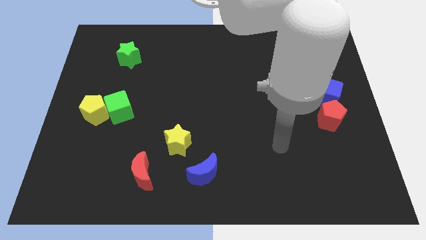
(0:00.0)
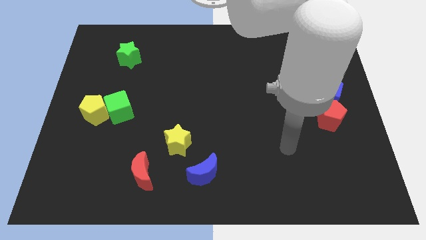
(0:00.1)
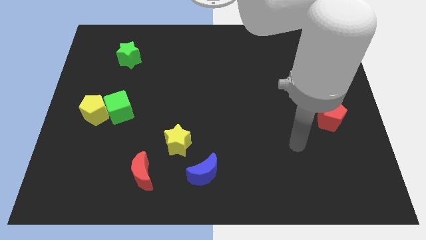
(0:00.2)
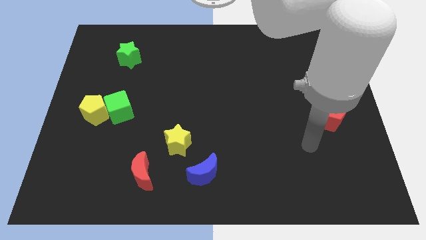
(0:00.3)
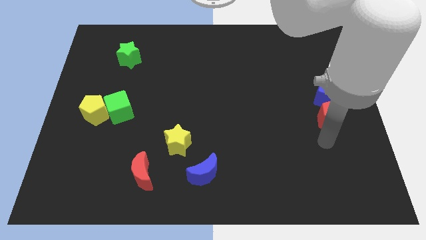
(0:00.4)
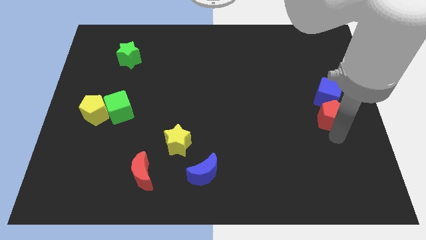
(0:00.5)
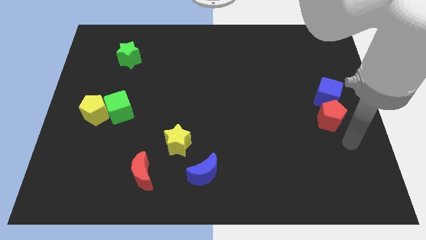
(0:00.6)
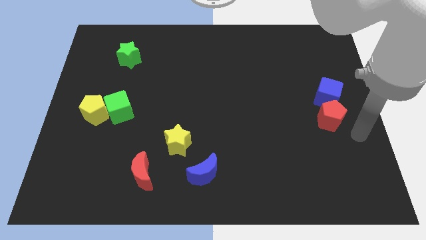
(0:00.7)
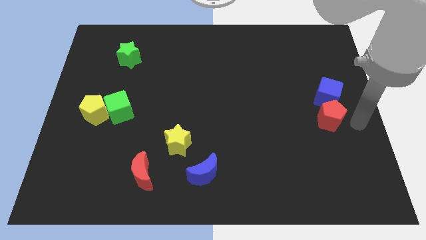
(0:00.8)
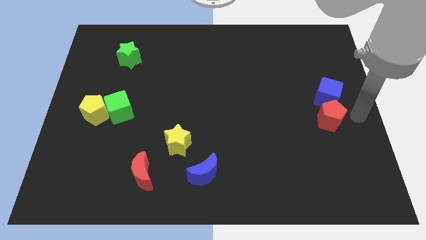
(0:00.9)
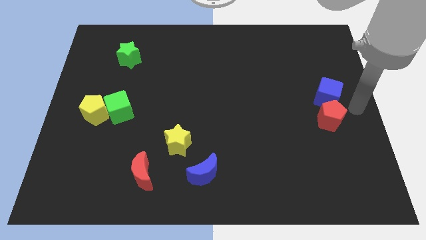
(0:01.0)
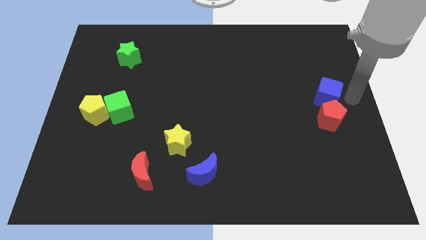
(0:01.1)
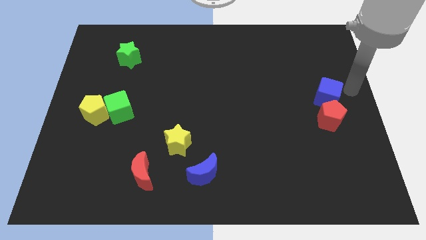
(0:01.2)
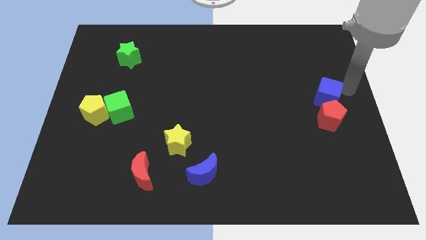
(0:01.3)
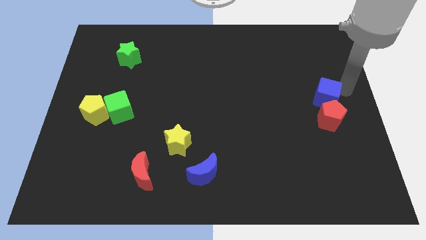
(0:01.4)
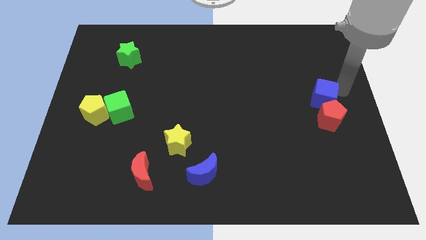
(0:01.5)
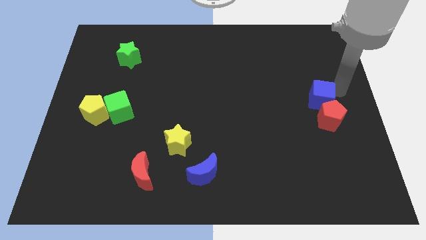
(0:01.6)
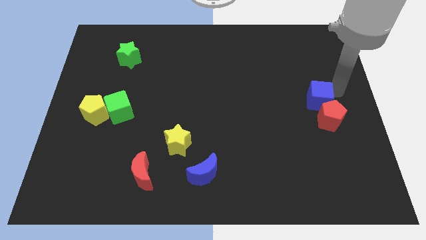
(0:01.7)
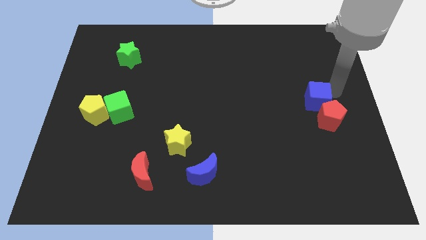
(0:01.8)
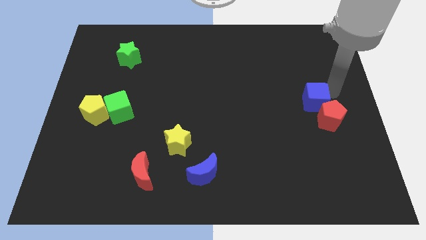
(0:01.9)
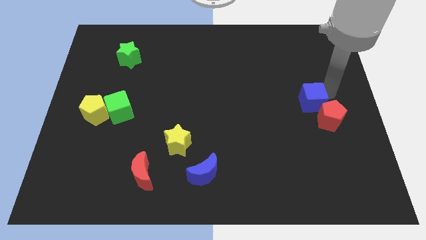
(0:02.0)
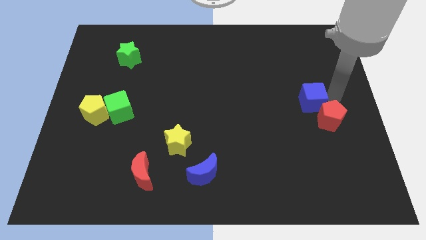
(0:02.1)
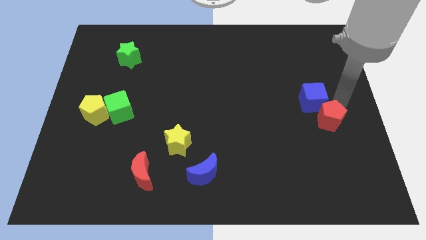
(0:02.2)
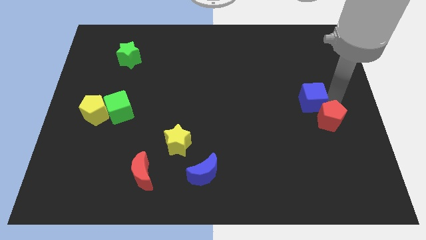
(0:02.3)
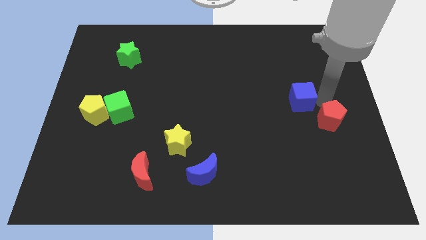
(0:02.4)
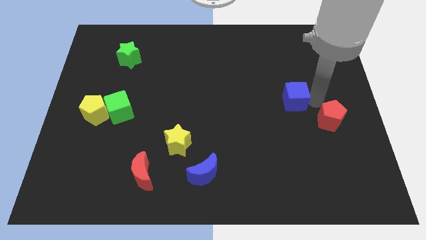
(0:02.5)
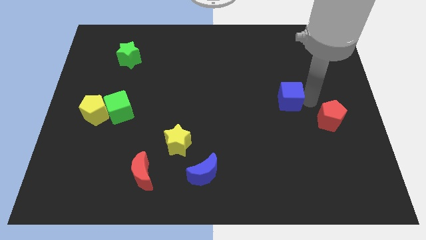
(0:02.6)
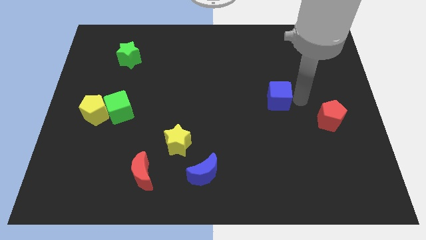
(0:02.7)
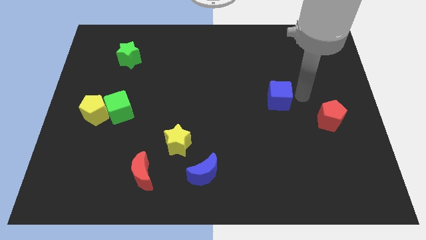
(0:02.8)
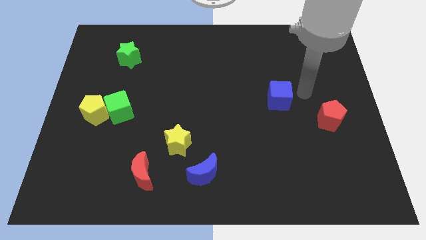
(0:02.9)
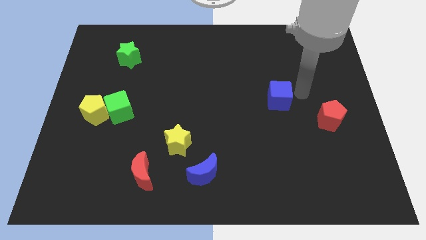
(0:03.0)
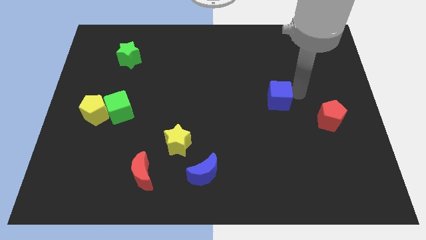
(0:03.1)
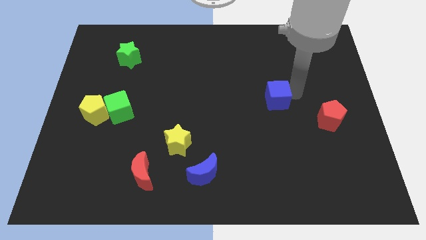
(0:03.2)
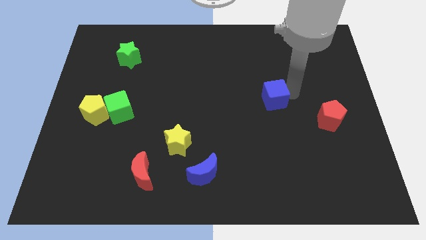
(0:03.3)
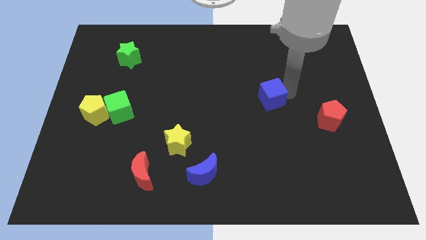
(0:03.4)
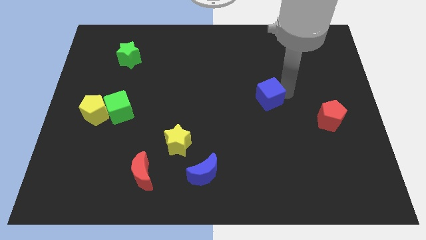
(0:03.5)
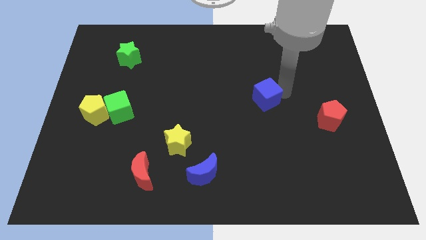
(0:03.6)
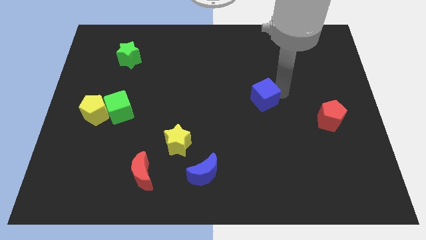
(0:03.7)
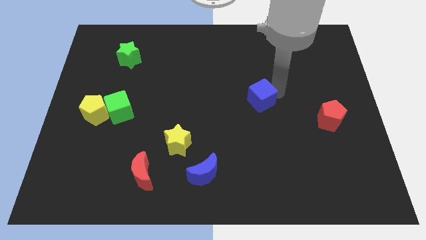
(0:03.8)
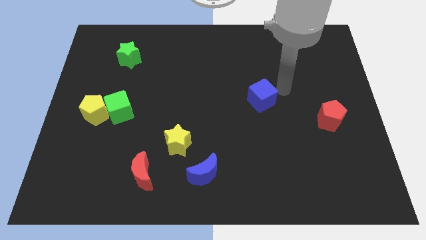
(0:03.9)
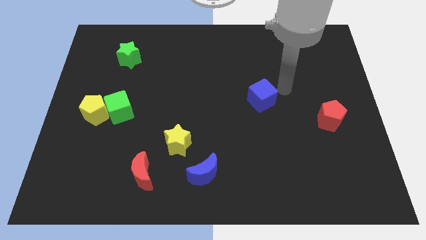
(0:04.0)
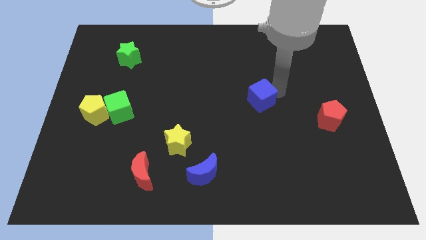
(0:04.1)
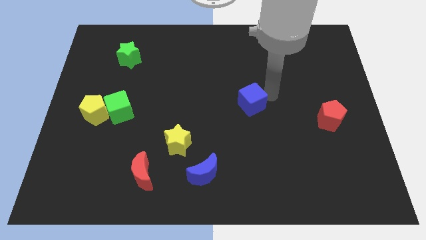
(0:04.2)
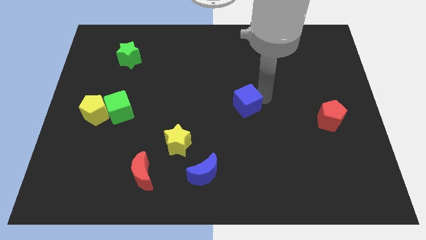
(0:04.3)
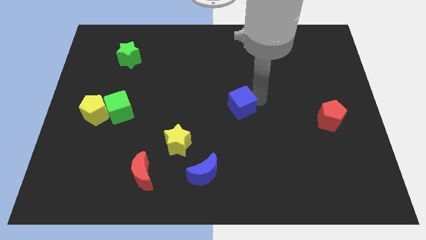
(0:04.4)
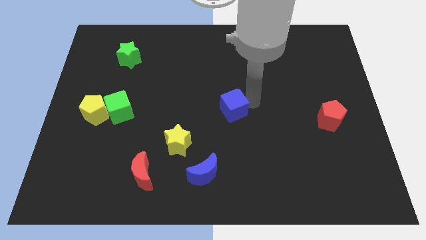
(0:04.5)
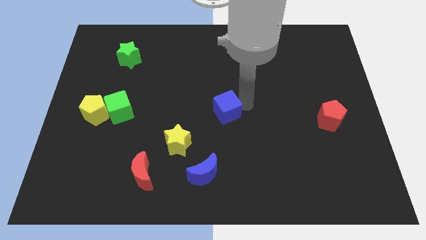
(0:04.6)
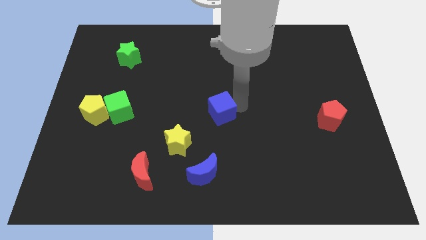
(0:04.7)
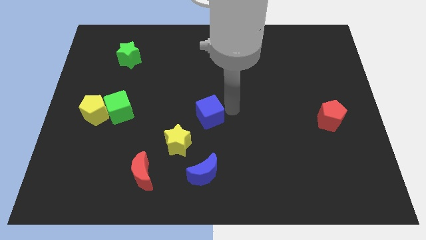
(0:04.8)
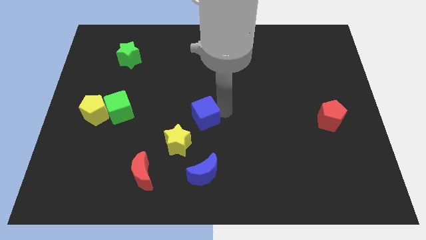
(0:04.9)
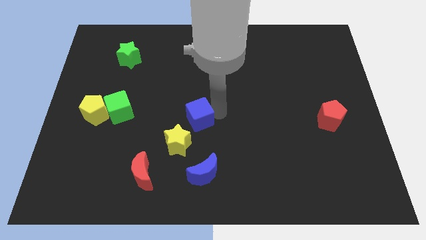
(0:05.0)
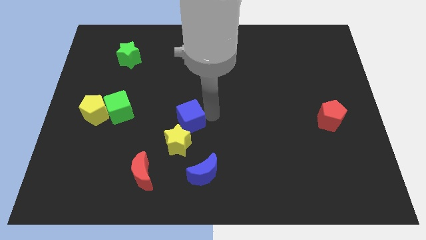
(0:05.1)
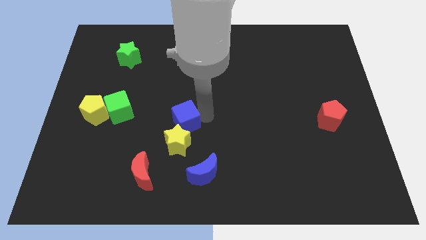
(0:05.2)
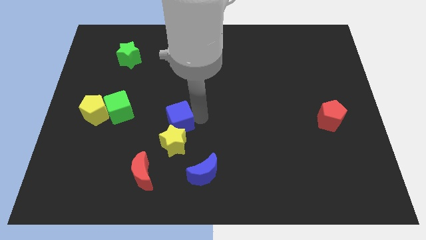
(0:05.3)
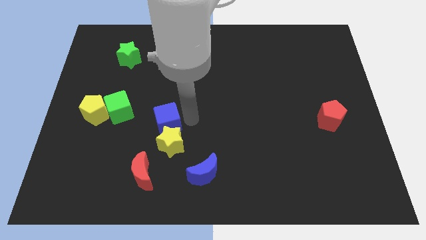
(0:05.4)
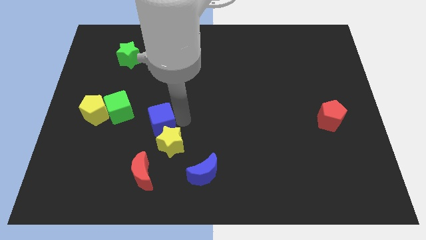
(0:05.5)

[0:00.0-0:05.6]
put the blue cube to the bottom right side of the green cube

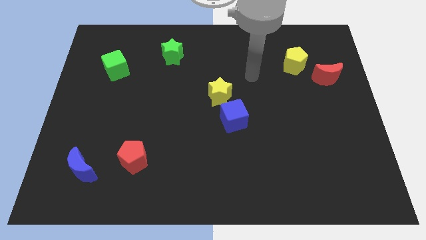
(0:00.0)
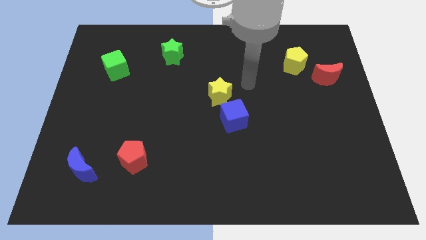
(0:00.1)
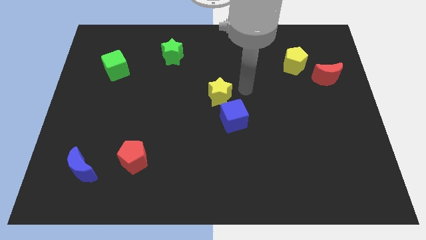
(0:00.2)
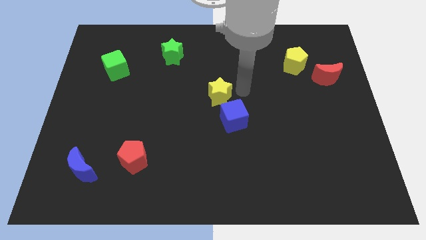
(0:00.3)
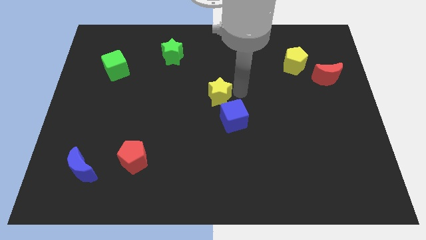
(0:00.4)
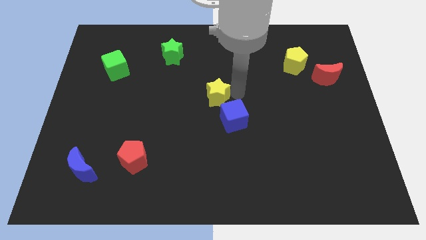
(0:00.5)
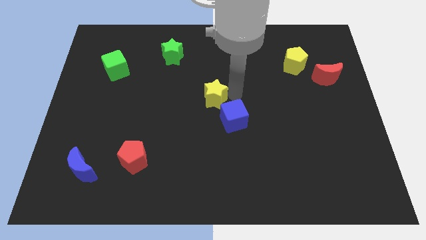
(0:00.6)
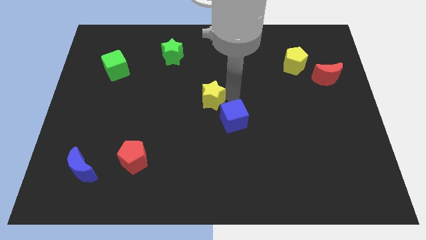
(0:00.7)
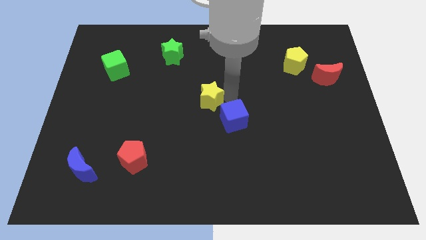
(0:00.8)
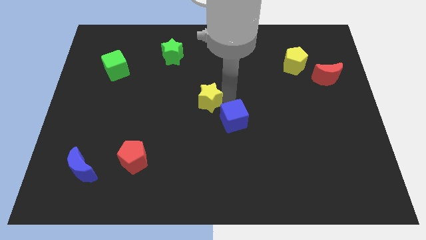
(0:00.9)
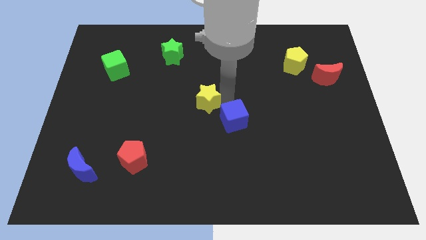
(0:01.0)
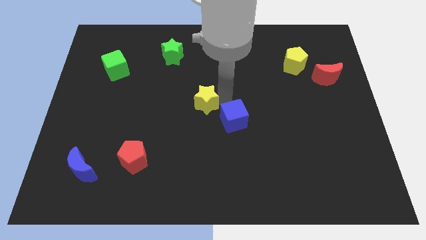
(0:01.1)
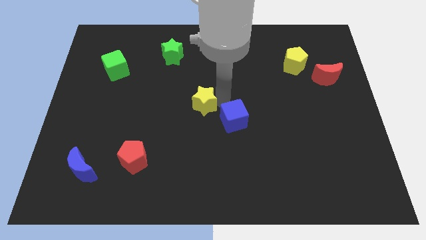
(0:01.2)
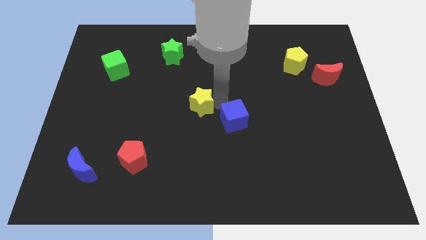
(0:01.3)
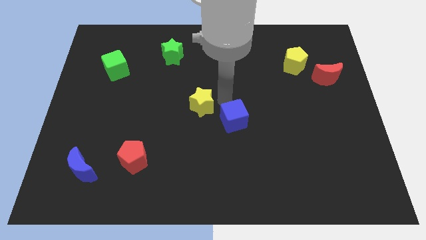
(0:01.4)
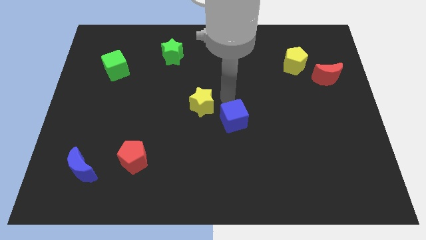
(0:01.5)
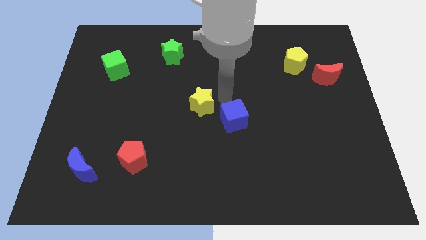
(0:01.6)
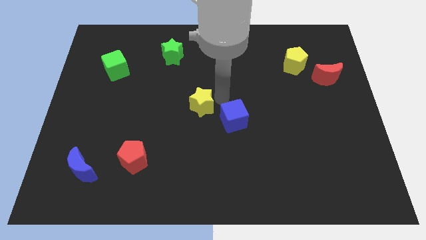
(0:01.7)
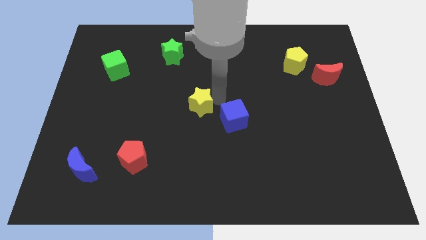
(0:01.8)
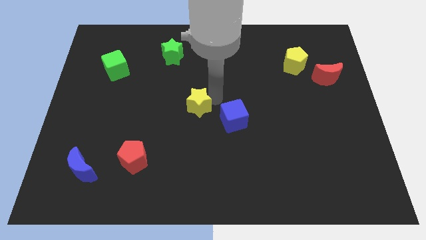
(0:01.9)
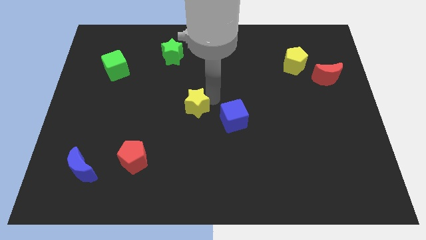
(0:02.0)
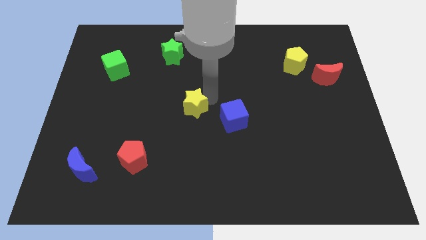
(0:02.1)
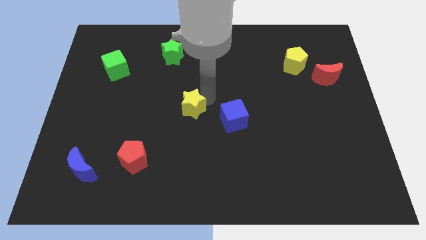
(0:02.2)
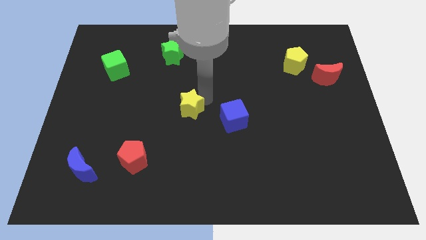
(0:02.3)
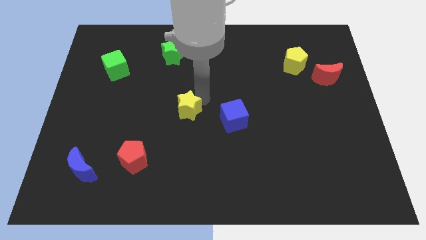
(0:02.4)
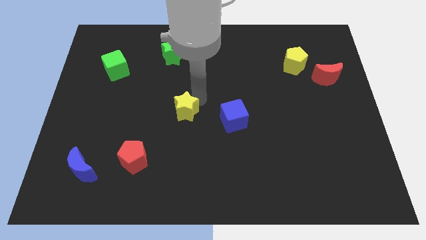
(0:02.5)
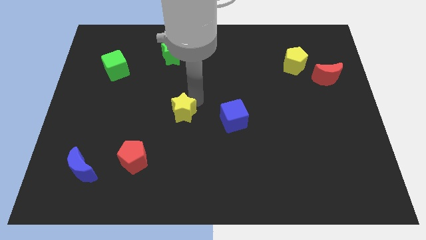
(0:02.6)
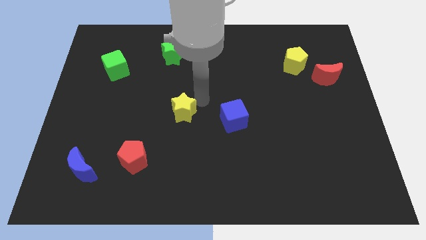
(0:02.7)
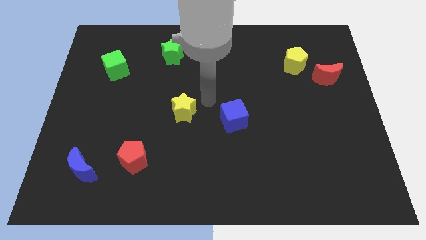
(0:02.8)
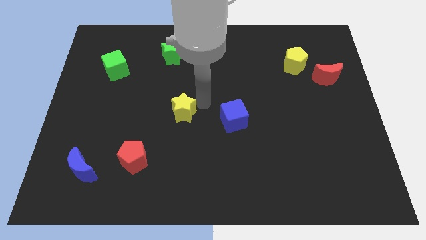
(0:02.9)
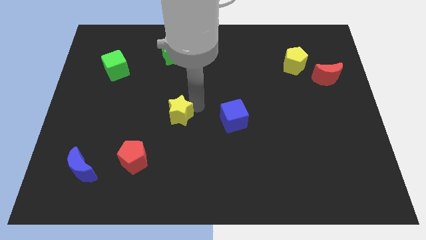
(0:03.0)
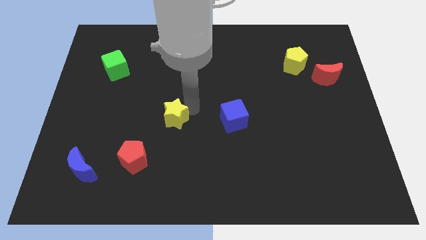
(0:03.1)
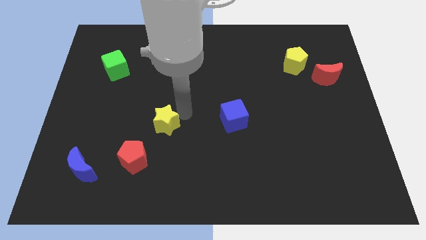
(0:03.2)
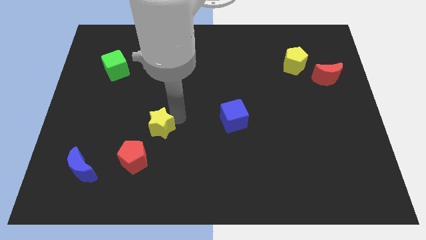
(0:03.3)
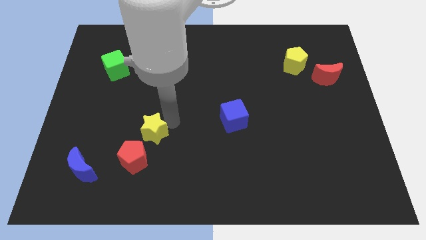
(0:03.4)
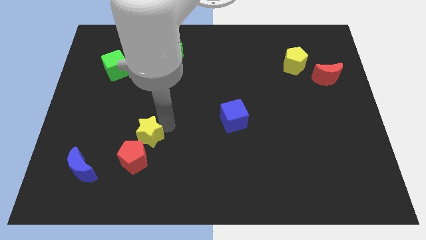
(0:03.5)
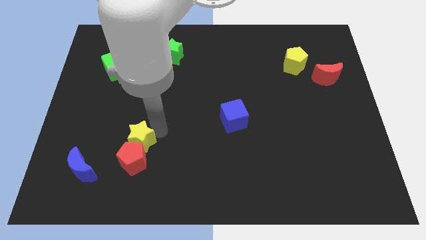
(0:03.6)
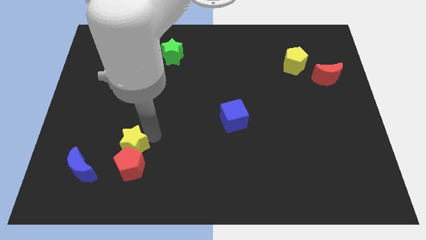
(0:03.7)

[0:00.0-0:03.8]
push the yellow star to the top right of the blue moon
